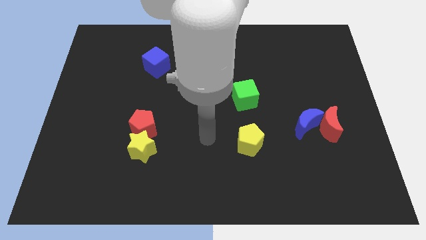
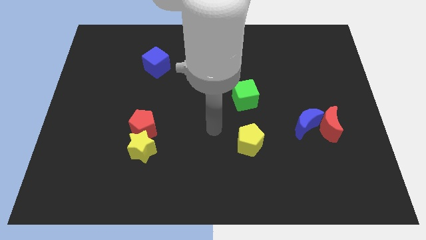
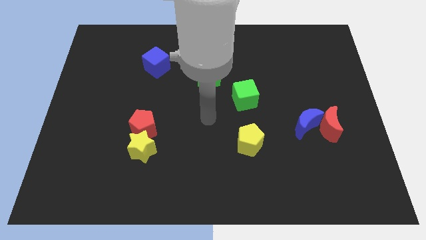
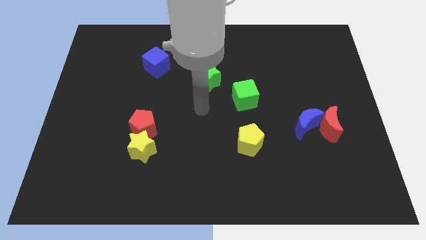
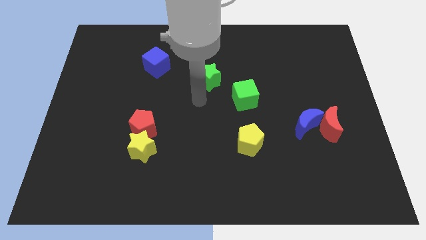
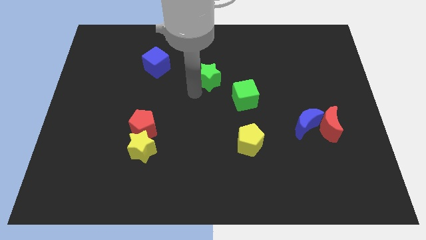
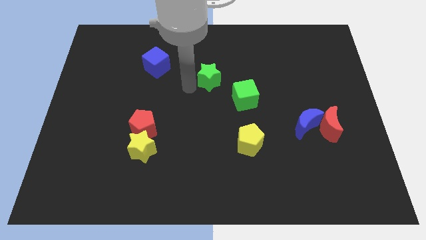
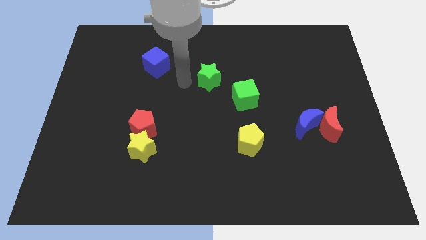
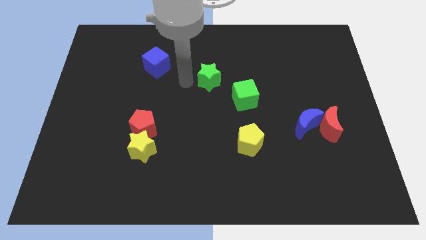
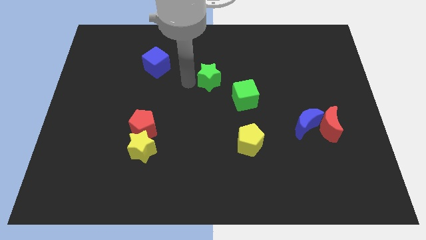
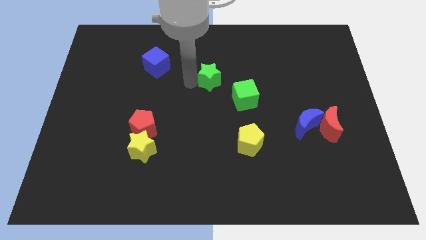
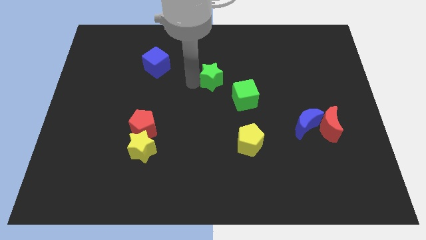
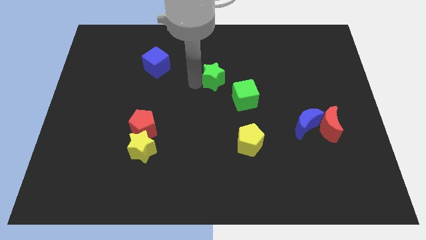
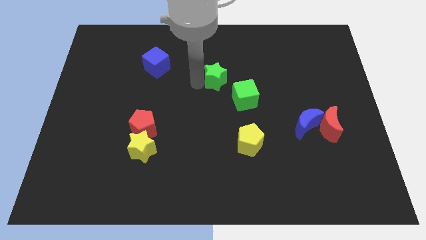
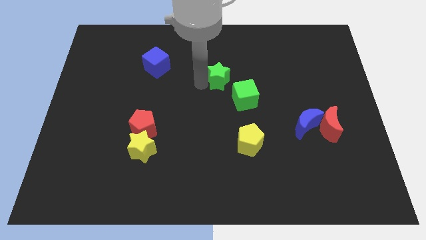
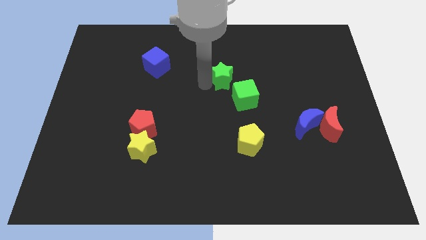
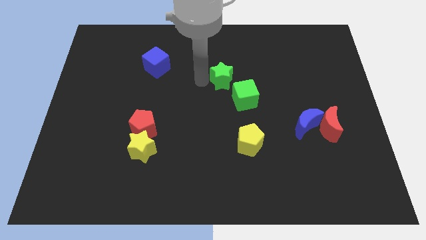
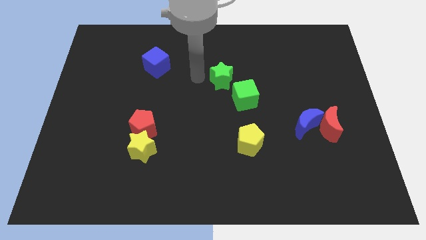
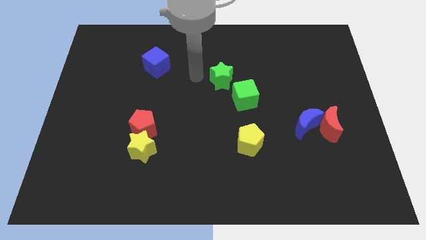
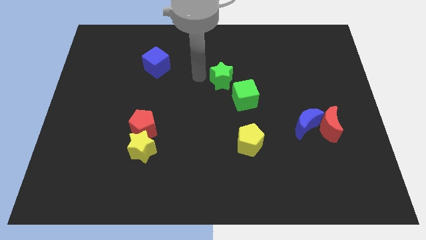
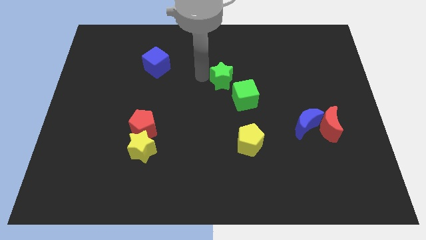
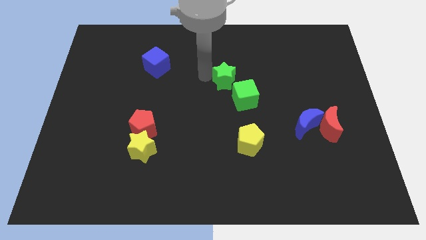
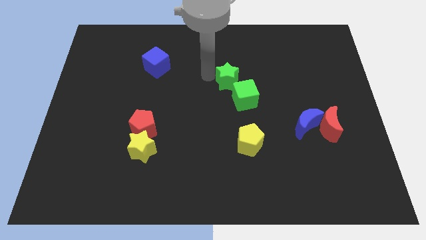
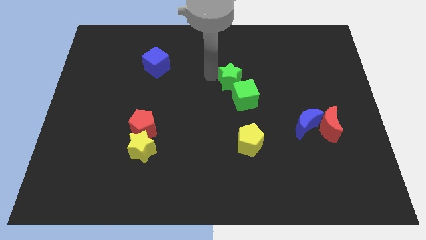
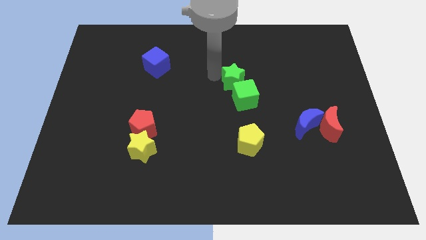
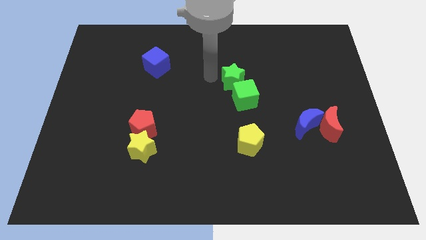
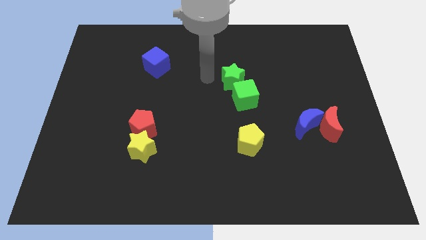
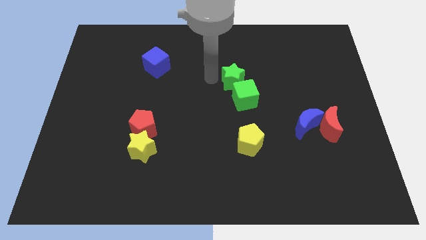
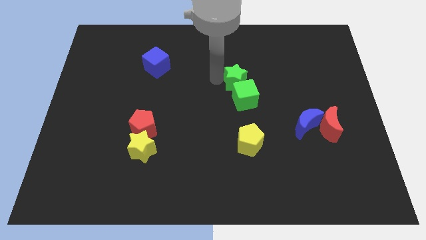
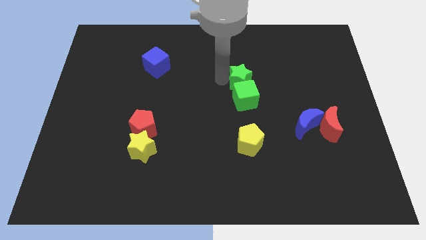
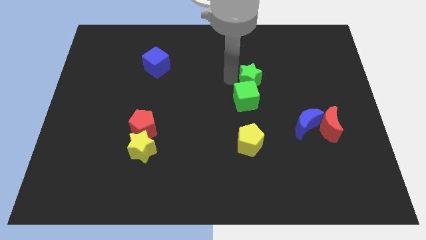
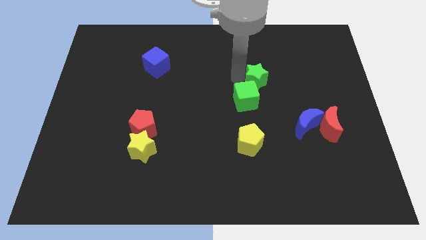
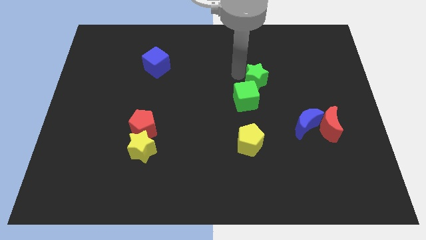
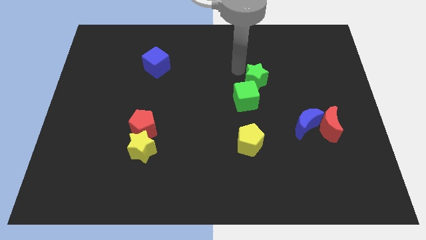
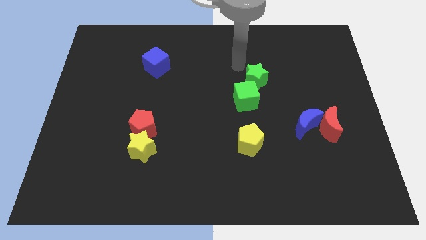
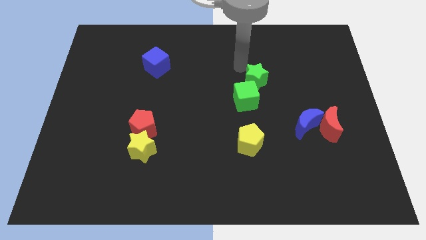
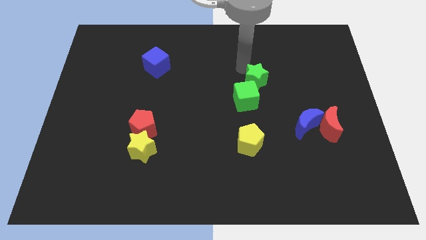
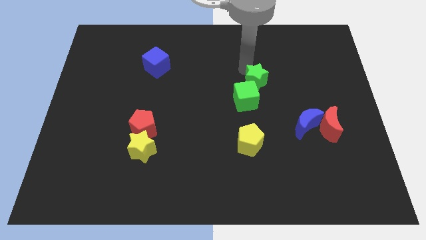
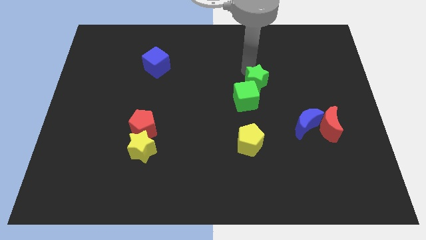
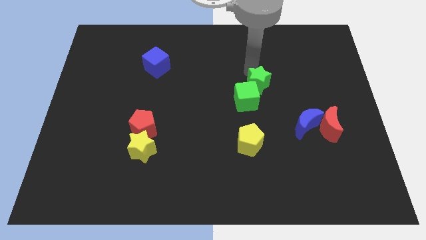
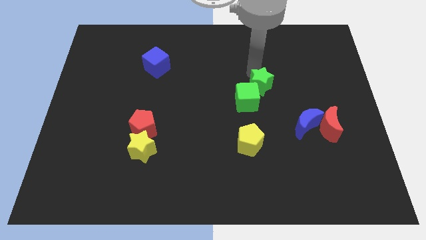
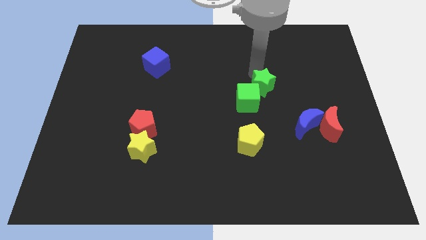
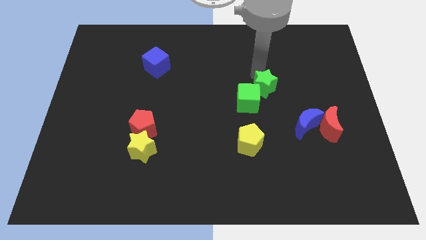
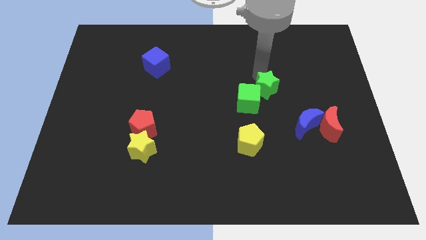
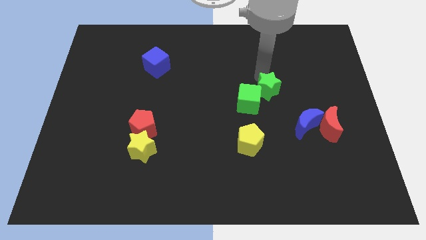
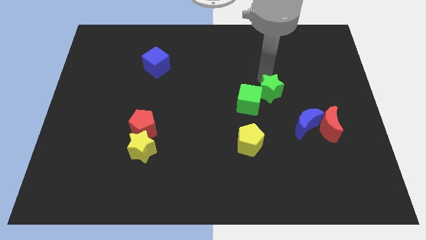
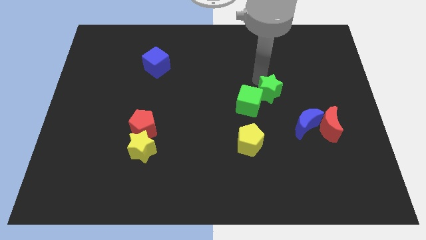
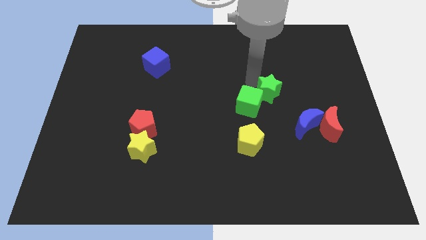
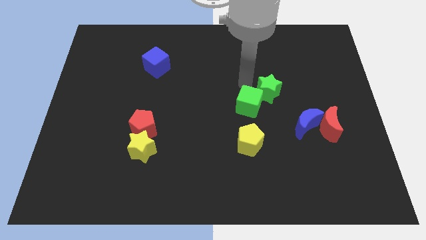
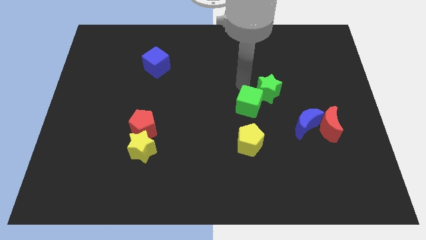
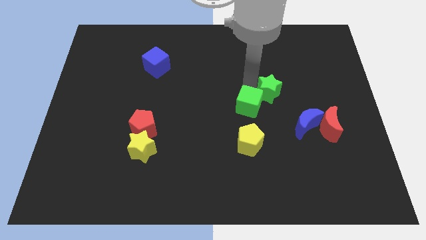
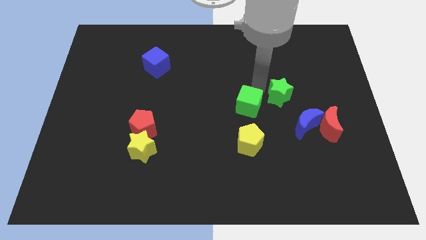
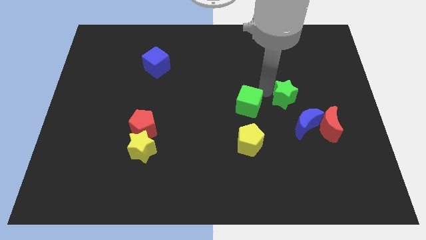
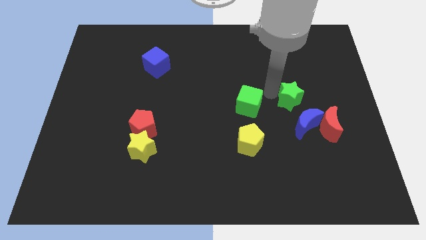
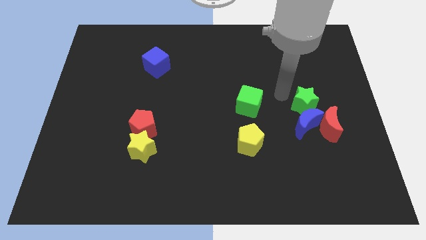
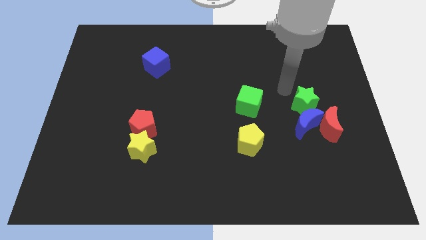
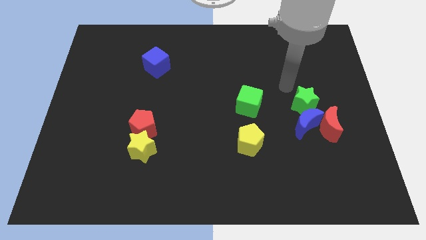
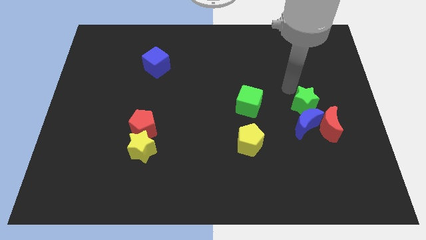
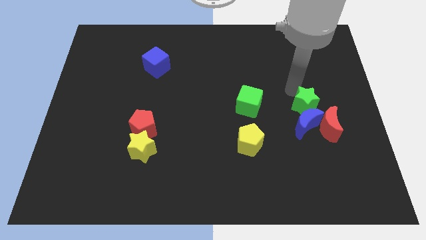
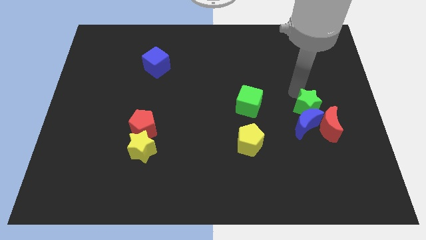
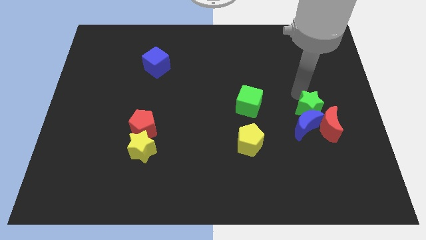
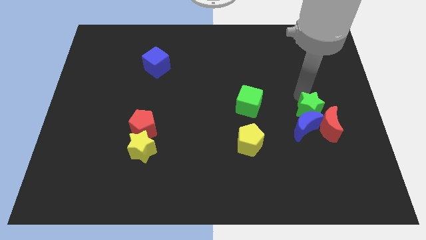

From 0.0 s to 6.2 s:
push the green star to the red moon

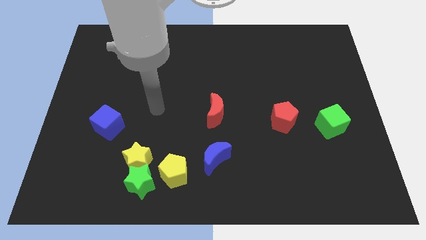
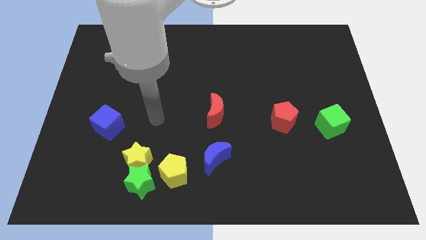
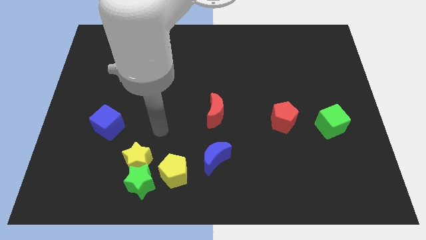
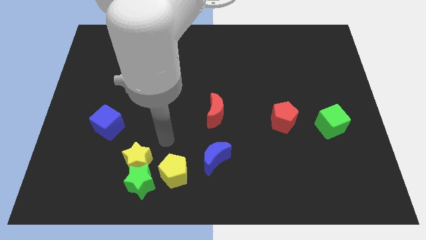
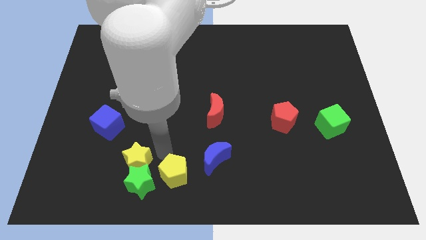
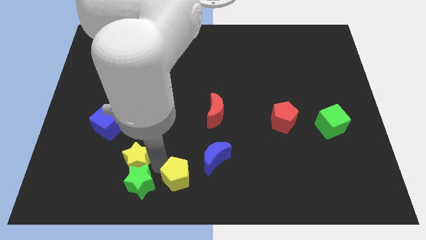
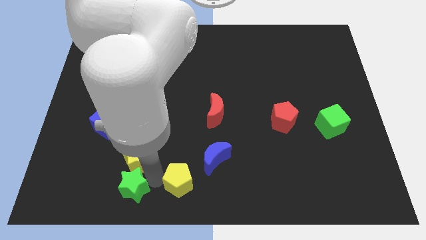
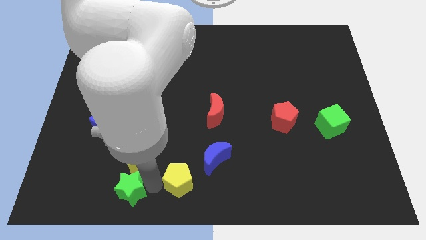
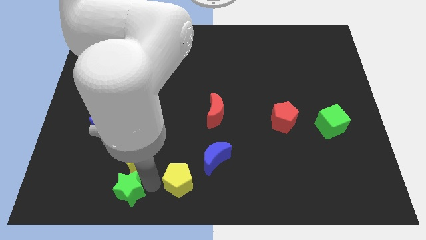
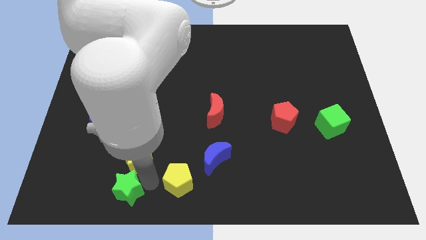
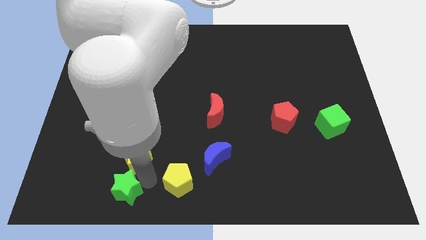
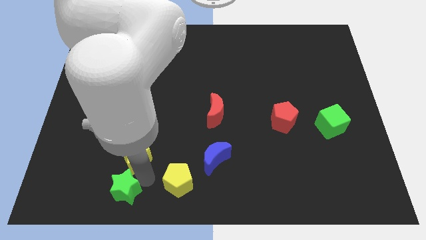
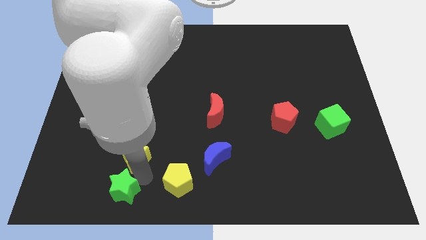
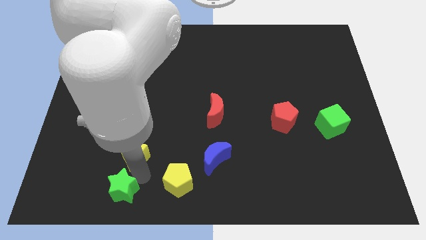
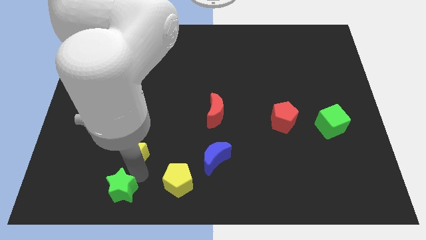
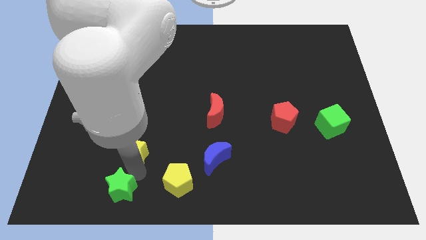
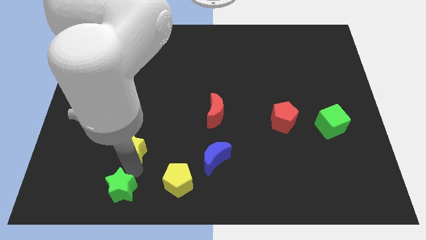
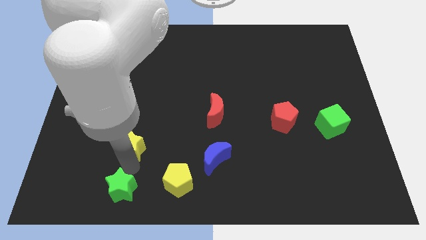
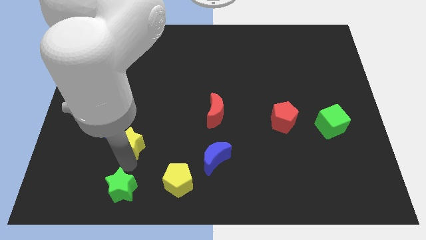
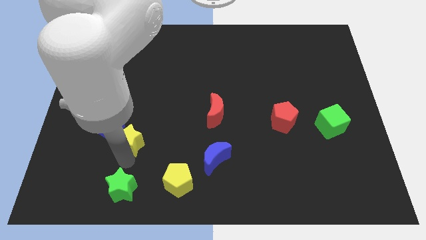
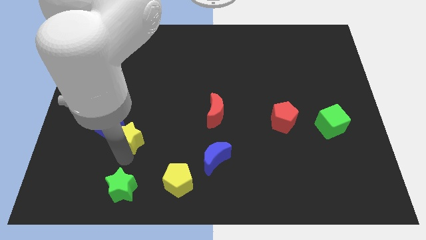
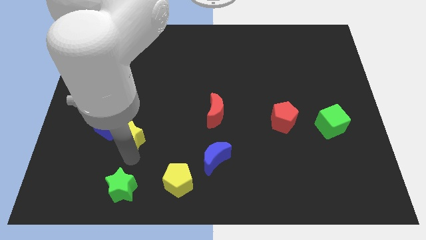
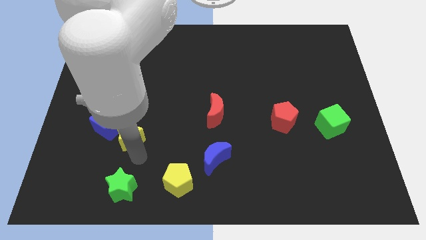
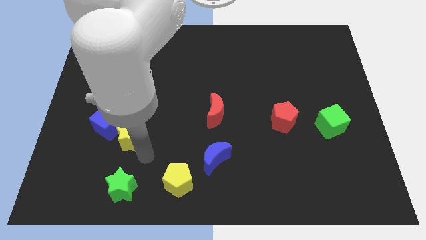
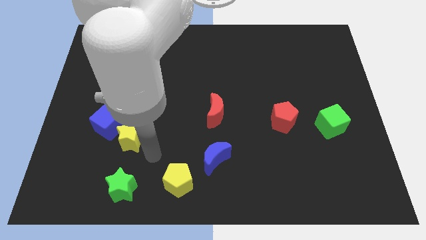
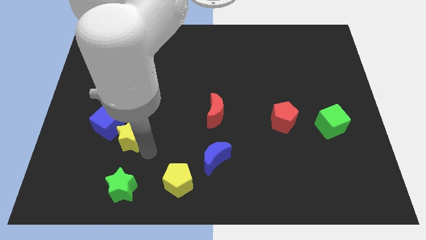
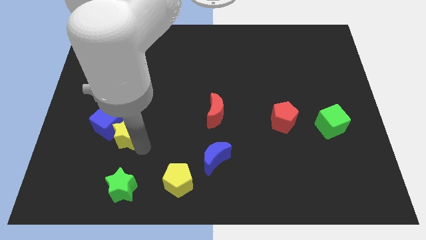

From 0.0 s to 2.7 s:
put the yellow star to the blue cube
